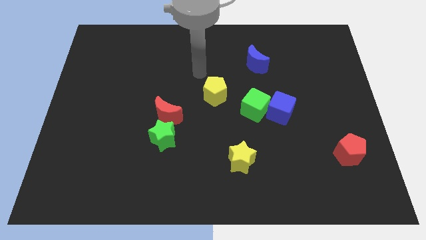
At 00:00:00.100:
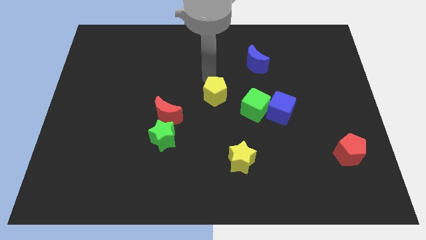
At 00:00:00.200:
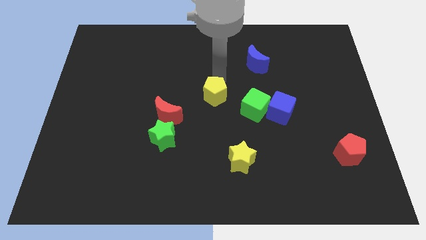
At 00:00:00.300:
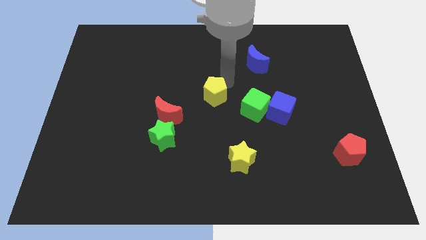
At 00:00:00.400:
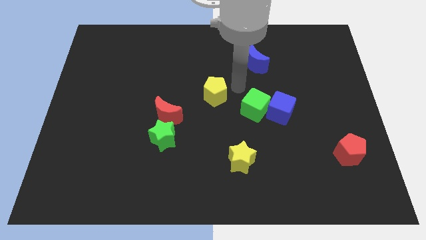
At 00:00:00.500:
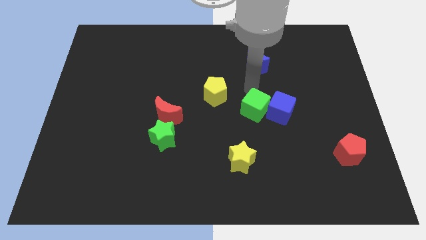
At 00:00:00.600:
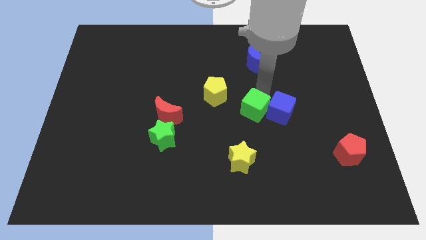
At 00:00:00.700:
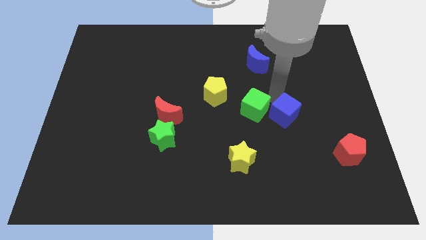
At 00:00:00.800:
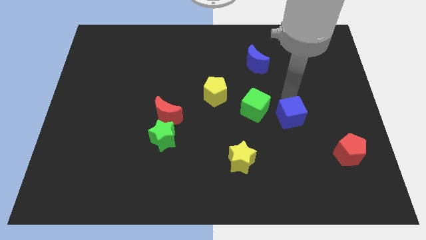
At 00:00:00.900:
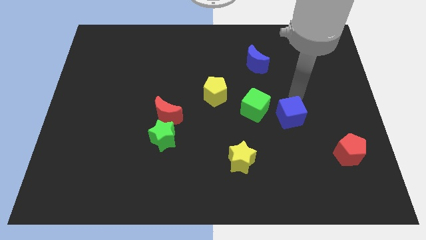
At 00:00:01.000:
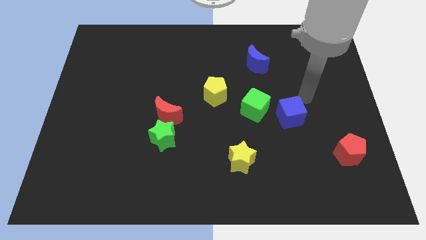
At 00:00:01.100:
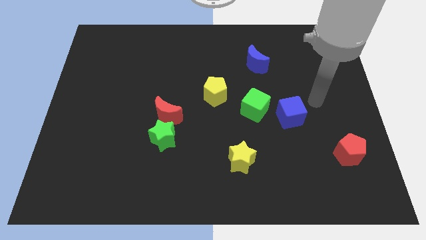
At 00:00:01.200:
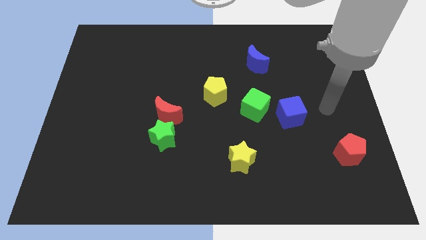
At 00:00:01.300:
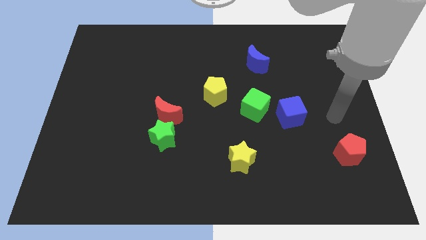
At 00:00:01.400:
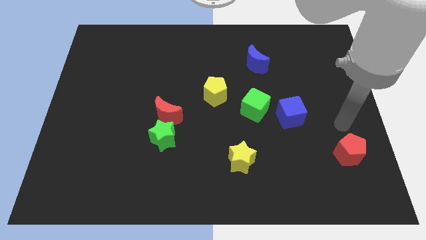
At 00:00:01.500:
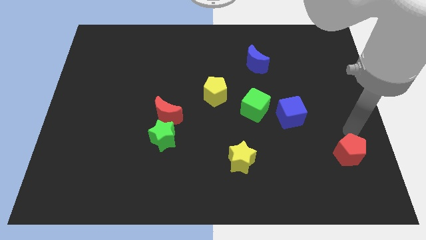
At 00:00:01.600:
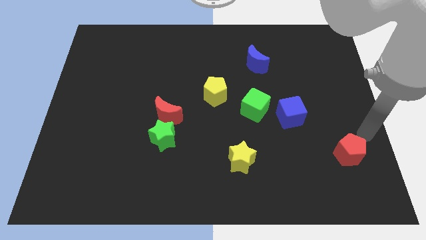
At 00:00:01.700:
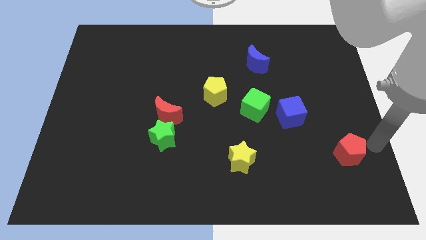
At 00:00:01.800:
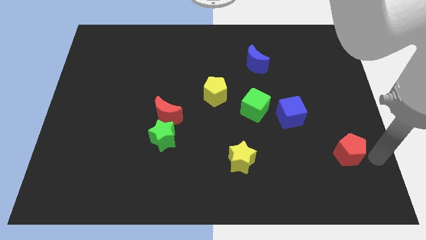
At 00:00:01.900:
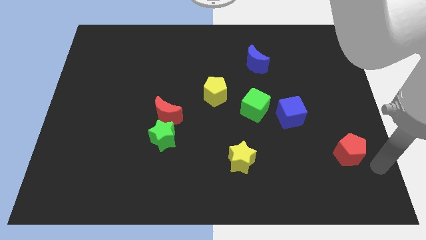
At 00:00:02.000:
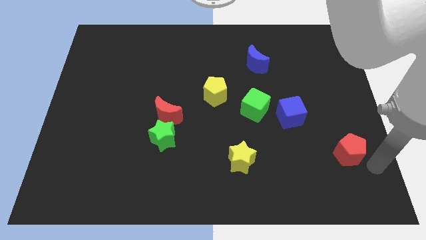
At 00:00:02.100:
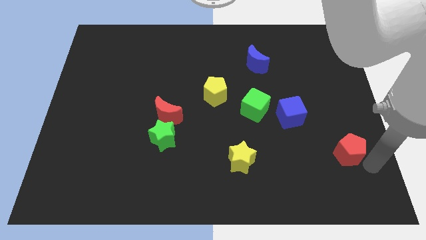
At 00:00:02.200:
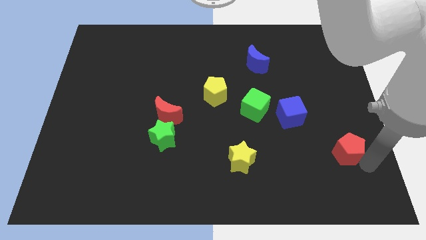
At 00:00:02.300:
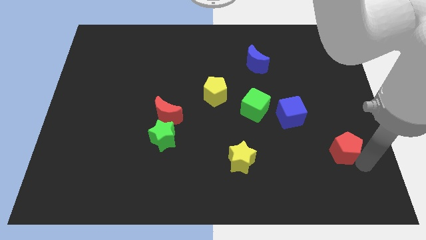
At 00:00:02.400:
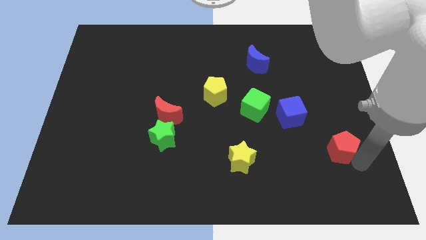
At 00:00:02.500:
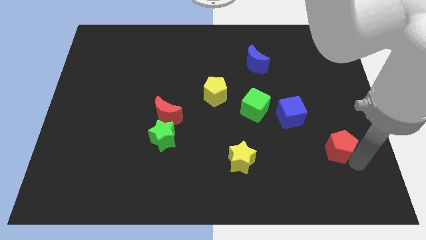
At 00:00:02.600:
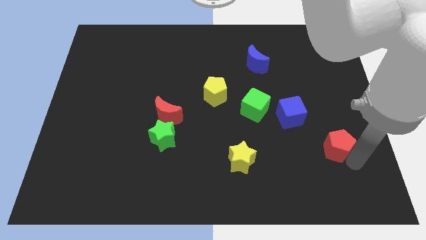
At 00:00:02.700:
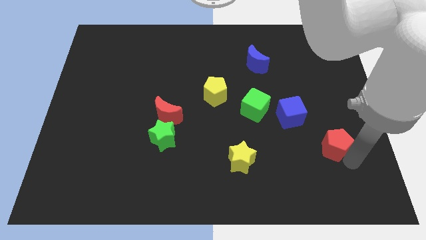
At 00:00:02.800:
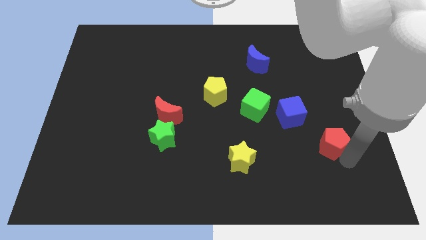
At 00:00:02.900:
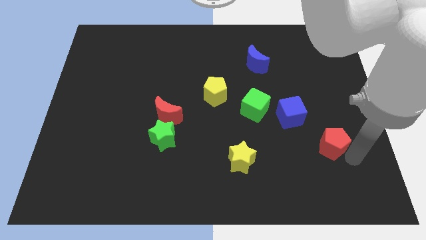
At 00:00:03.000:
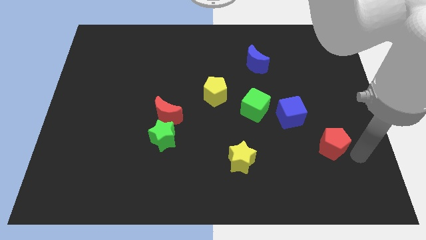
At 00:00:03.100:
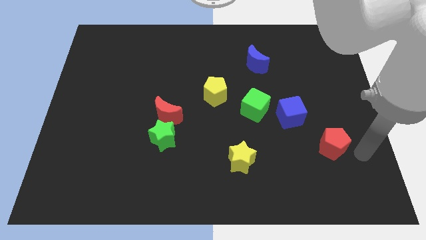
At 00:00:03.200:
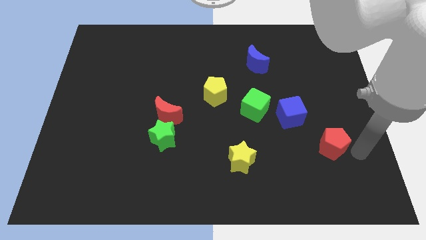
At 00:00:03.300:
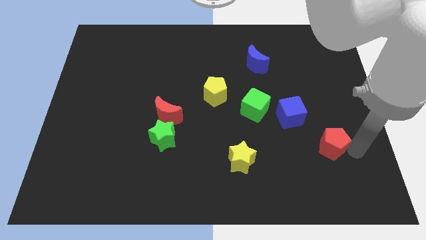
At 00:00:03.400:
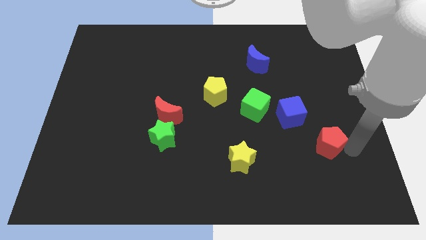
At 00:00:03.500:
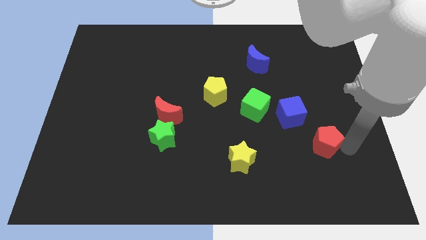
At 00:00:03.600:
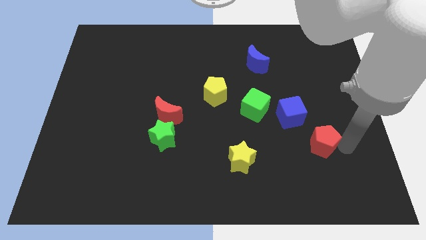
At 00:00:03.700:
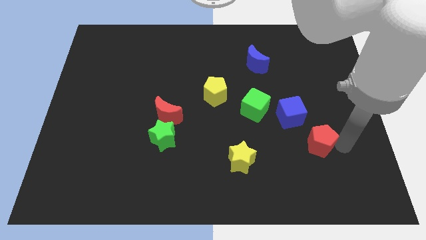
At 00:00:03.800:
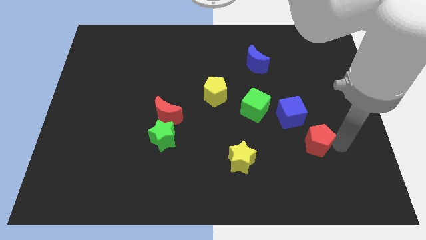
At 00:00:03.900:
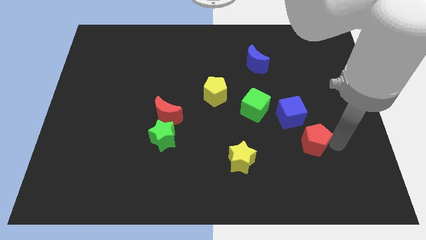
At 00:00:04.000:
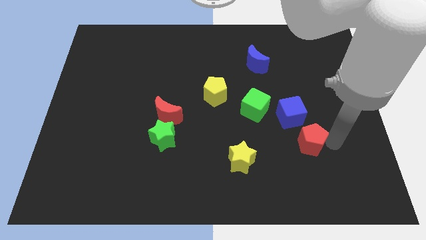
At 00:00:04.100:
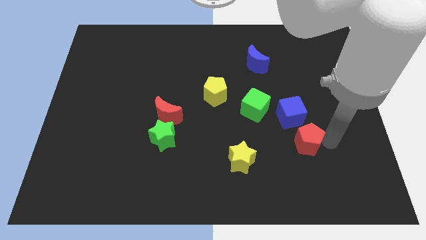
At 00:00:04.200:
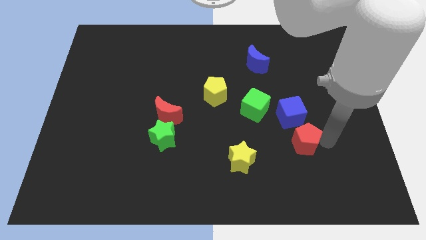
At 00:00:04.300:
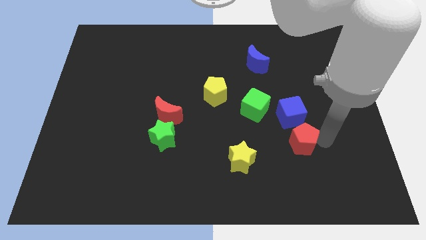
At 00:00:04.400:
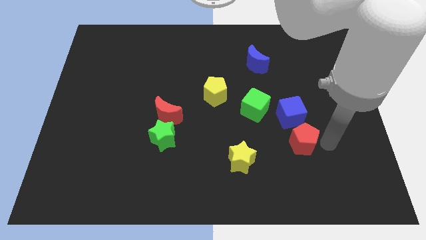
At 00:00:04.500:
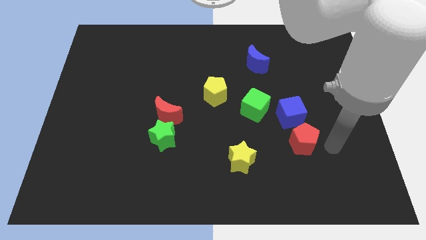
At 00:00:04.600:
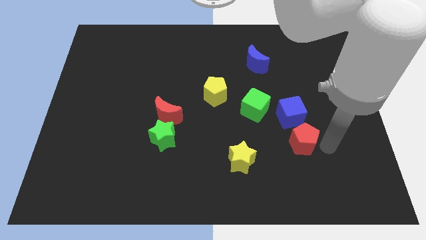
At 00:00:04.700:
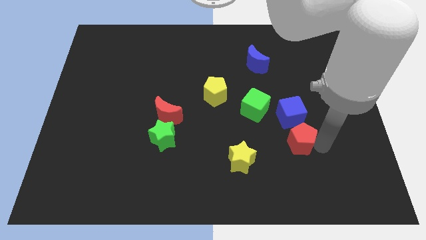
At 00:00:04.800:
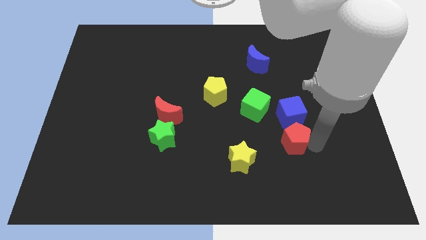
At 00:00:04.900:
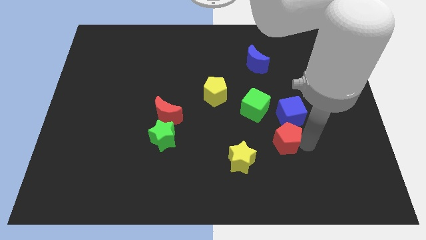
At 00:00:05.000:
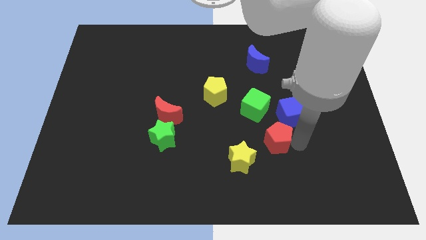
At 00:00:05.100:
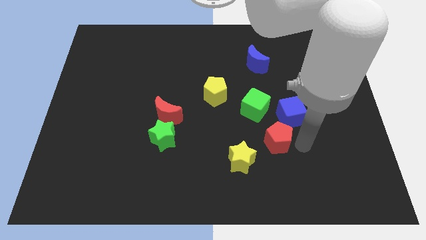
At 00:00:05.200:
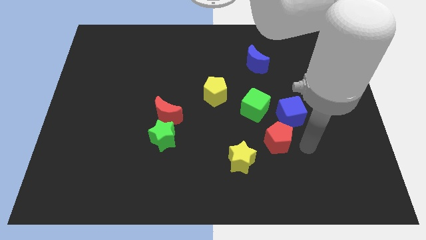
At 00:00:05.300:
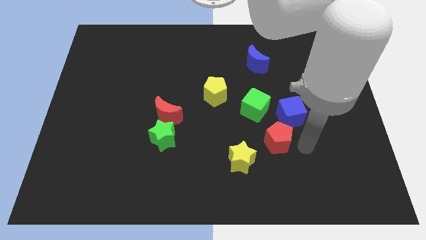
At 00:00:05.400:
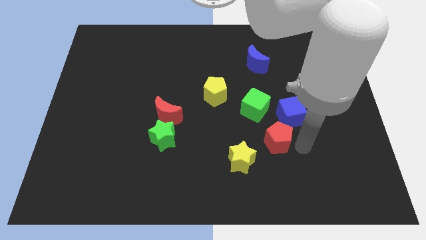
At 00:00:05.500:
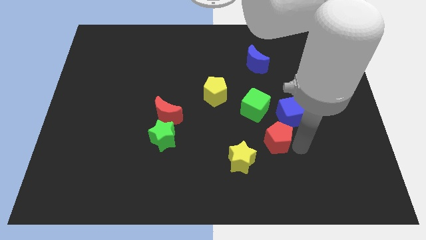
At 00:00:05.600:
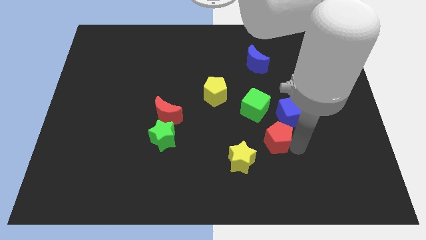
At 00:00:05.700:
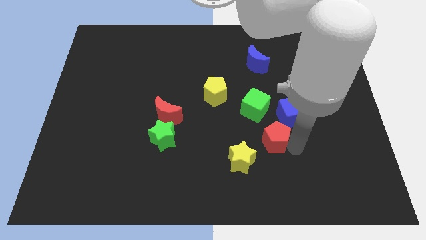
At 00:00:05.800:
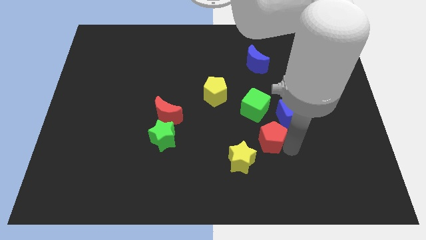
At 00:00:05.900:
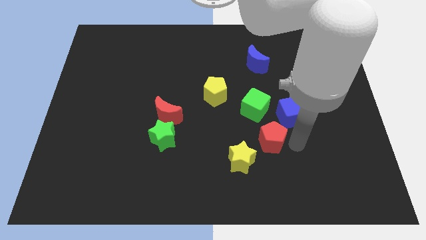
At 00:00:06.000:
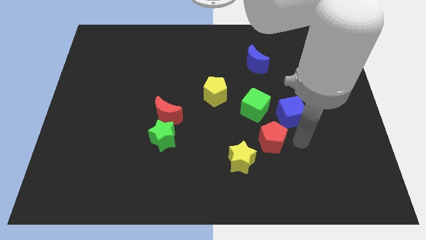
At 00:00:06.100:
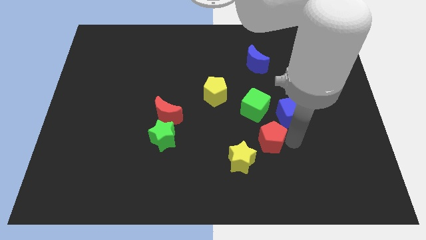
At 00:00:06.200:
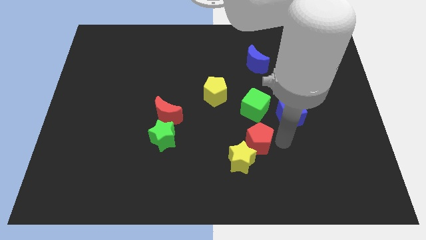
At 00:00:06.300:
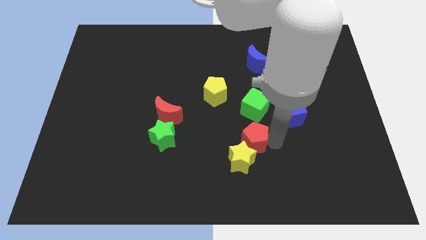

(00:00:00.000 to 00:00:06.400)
slide the red pentagon left

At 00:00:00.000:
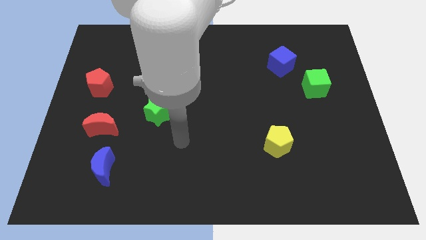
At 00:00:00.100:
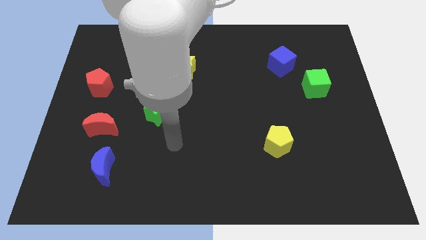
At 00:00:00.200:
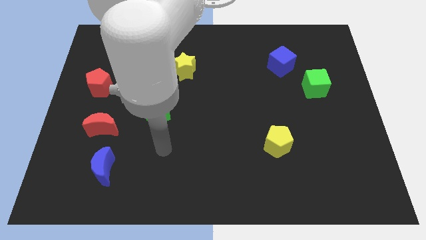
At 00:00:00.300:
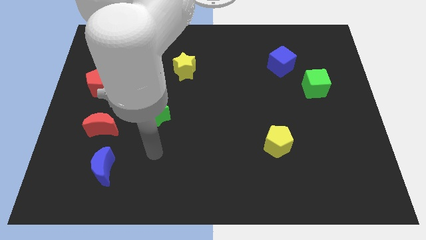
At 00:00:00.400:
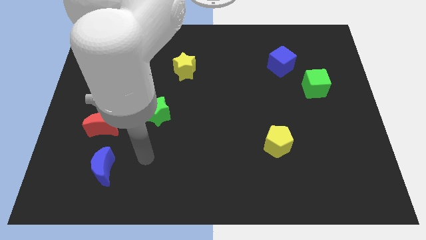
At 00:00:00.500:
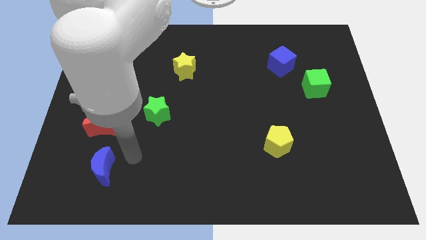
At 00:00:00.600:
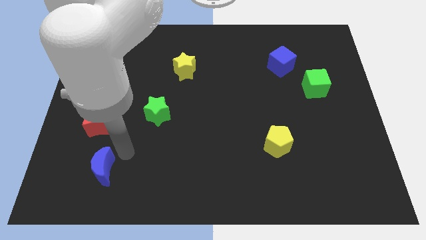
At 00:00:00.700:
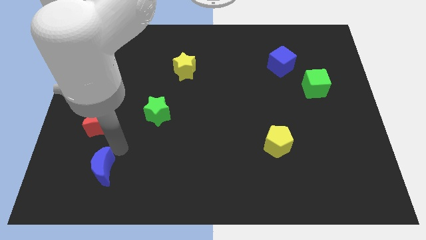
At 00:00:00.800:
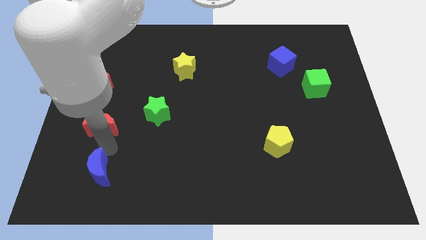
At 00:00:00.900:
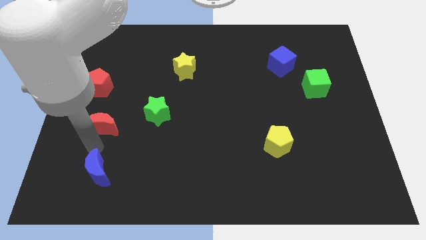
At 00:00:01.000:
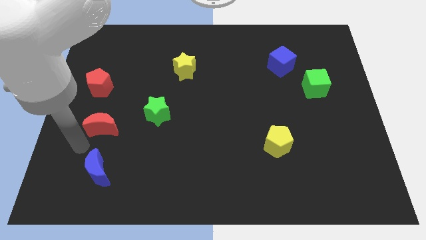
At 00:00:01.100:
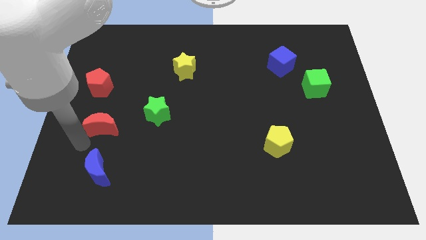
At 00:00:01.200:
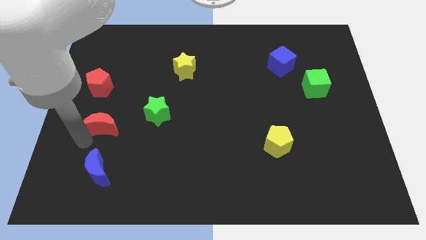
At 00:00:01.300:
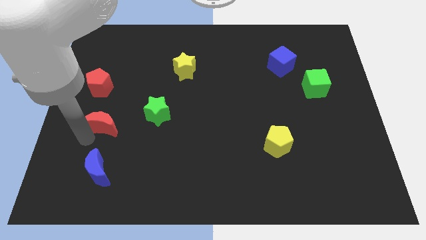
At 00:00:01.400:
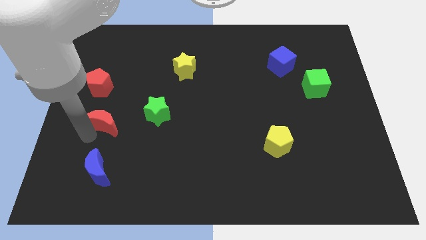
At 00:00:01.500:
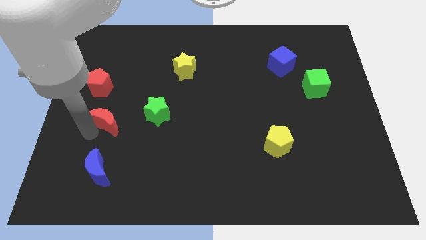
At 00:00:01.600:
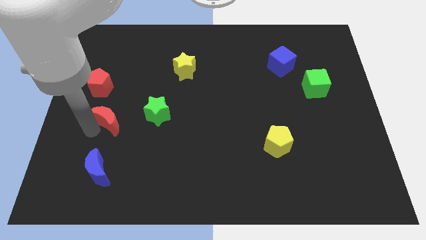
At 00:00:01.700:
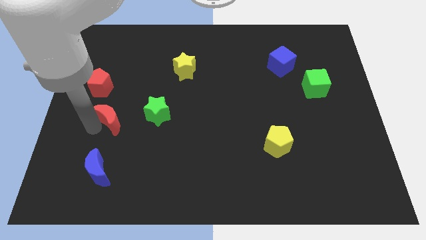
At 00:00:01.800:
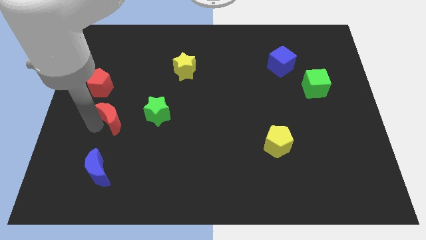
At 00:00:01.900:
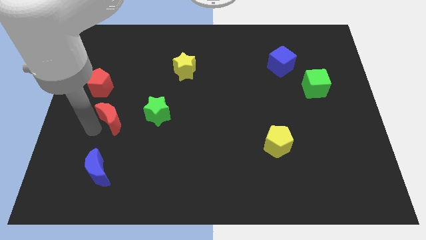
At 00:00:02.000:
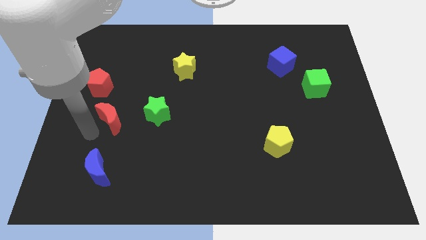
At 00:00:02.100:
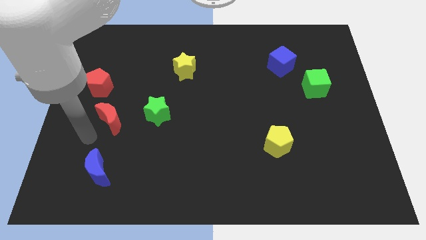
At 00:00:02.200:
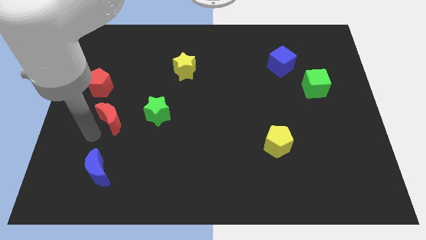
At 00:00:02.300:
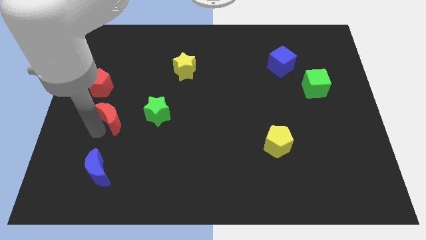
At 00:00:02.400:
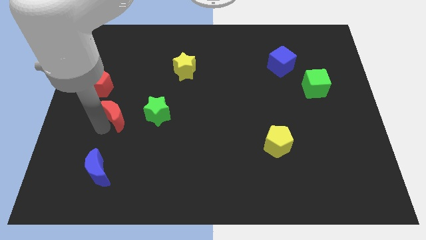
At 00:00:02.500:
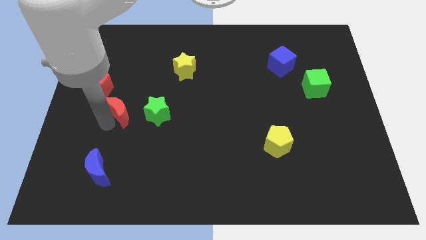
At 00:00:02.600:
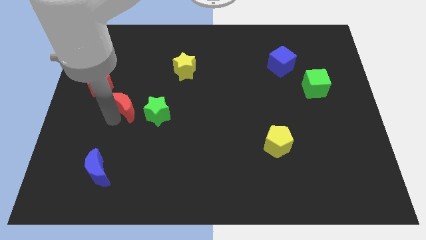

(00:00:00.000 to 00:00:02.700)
slide the red moon upwards and then to the right a little bit
